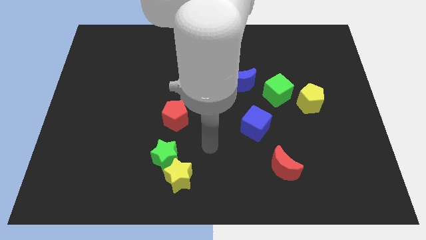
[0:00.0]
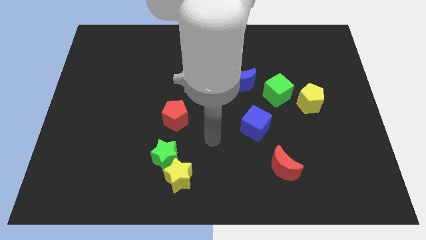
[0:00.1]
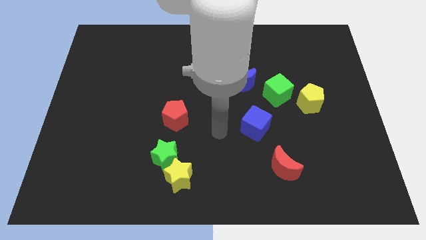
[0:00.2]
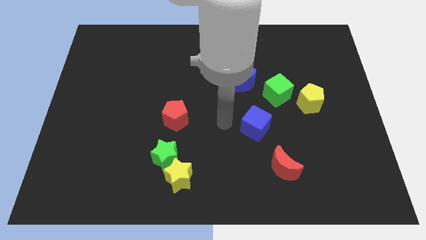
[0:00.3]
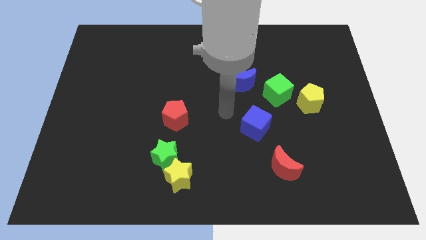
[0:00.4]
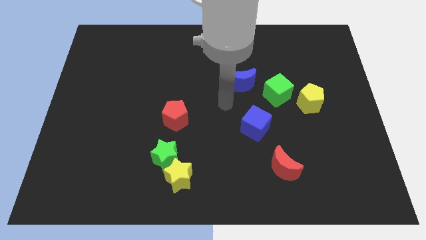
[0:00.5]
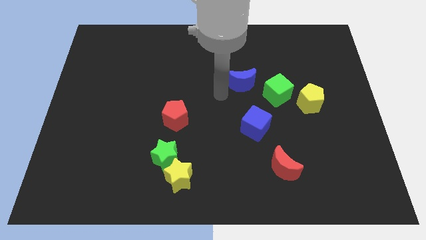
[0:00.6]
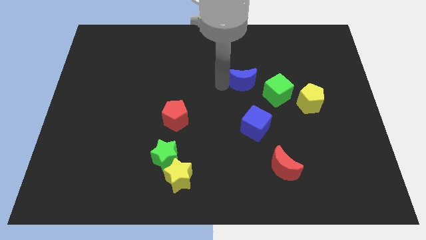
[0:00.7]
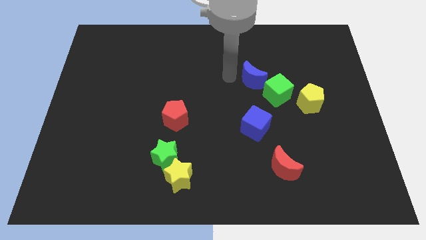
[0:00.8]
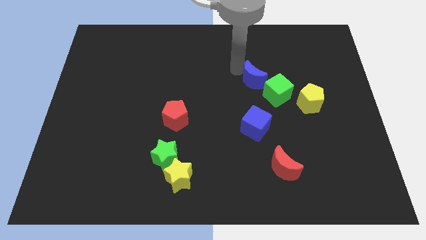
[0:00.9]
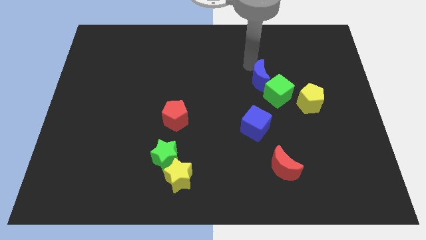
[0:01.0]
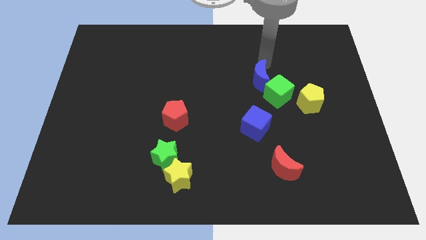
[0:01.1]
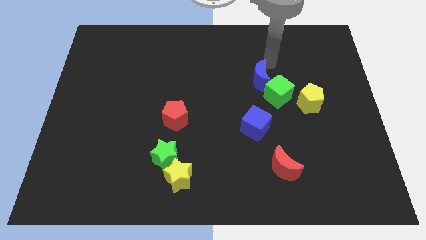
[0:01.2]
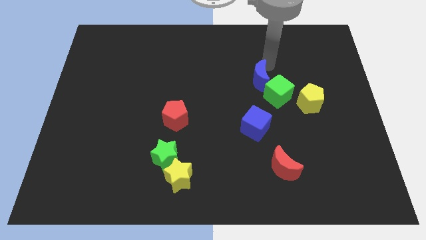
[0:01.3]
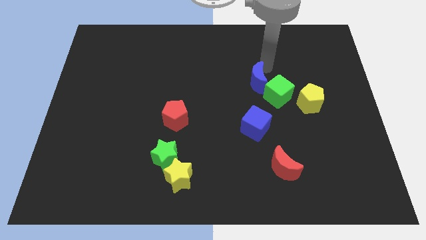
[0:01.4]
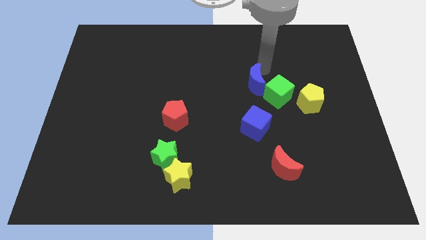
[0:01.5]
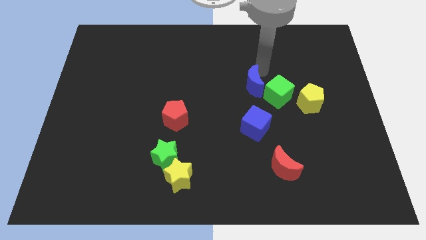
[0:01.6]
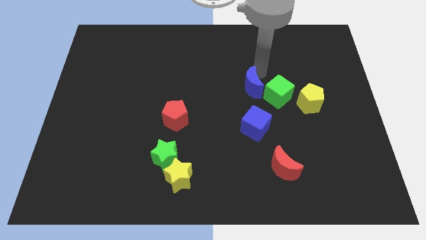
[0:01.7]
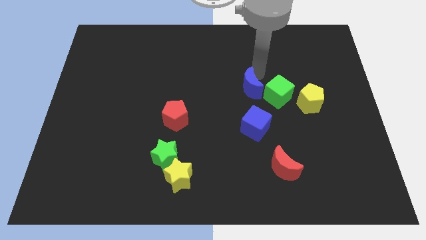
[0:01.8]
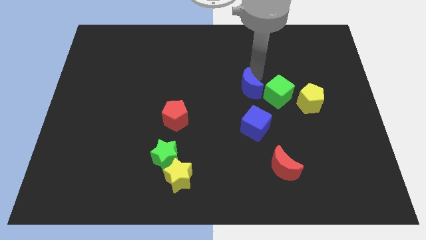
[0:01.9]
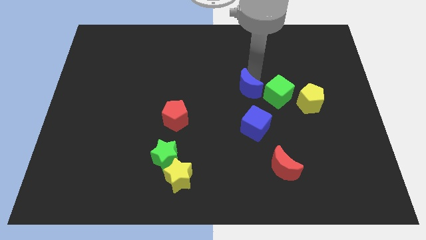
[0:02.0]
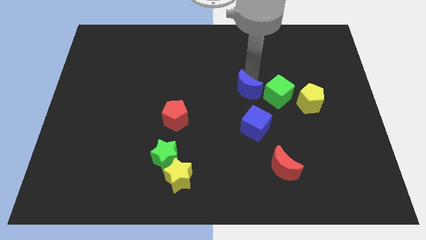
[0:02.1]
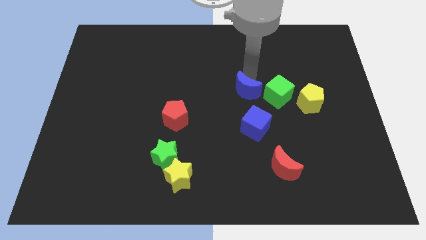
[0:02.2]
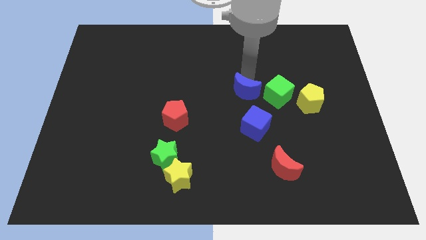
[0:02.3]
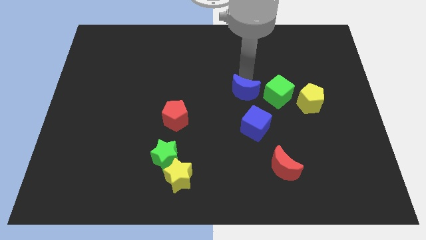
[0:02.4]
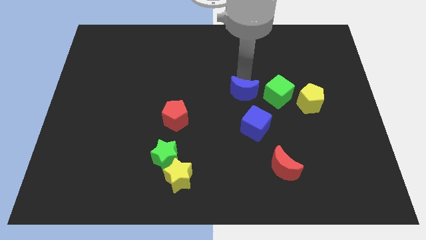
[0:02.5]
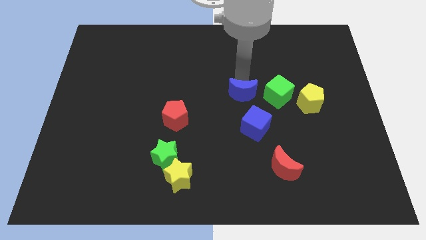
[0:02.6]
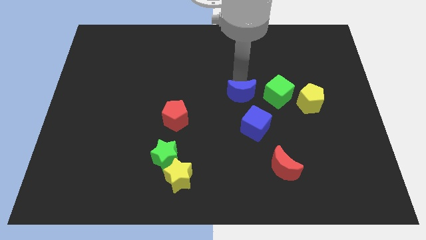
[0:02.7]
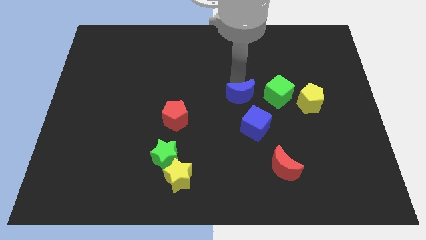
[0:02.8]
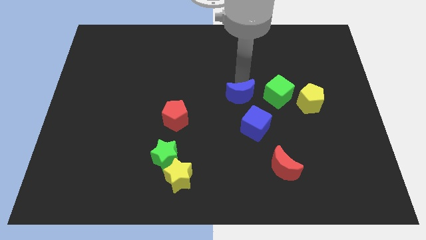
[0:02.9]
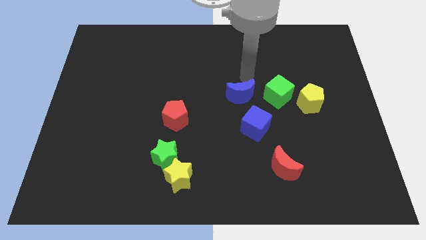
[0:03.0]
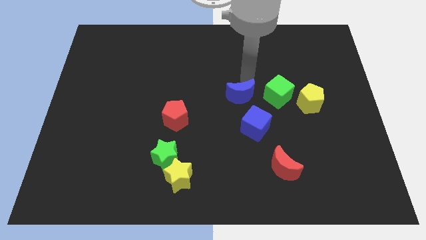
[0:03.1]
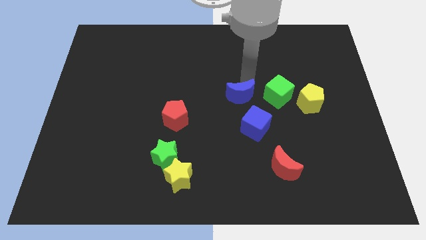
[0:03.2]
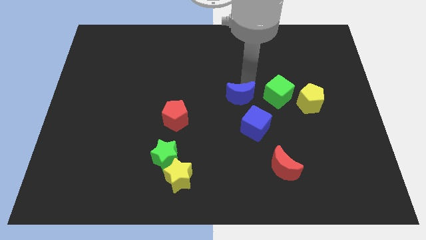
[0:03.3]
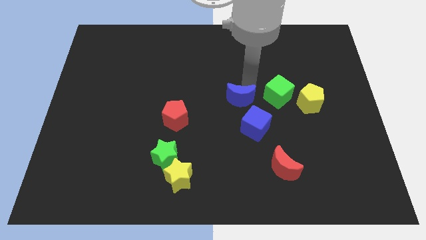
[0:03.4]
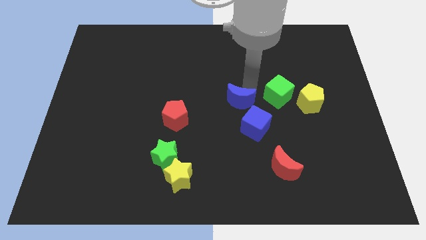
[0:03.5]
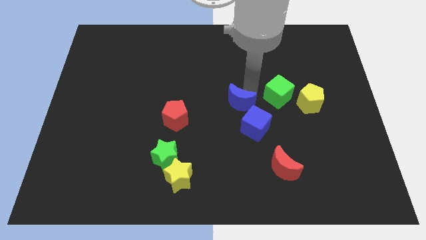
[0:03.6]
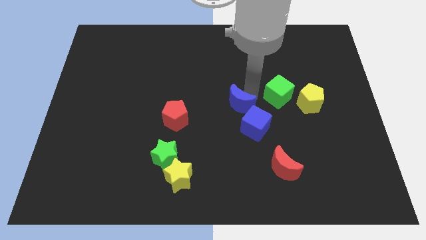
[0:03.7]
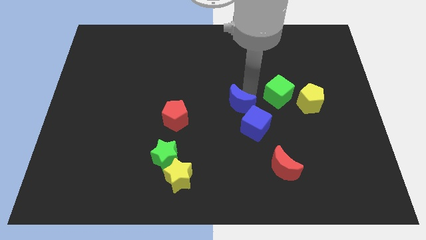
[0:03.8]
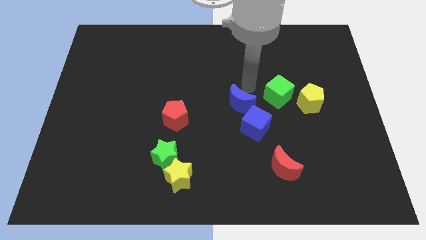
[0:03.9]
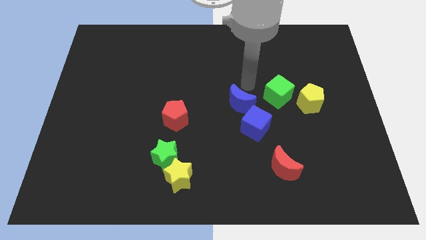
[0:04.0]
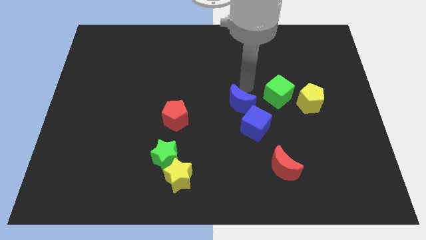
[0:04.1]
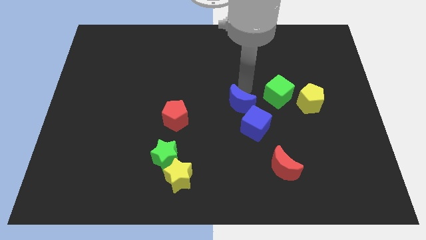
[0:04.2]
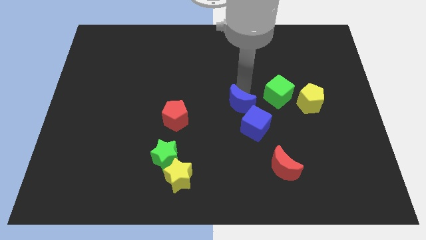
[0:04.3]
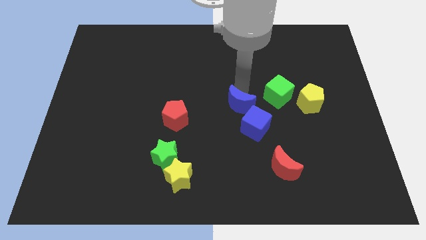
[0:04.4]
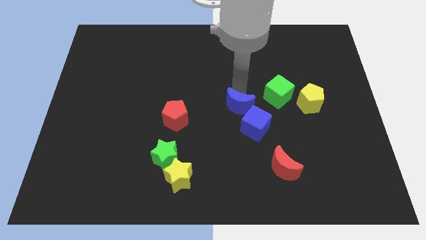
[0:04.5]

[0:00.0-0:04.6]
push the blue moon downwards a bit

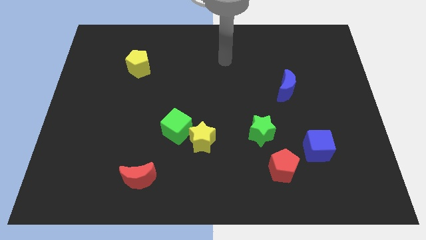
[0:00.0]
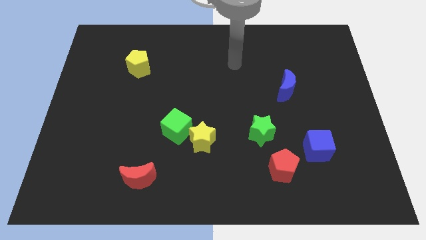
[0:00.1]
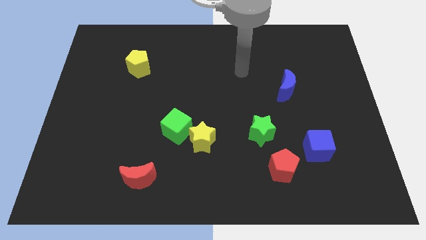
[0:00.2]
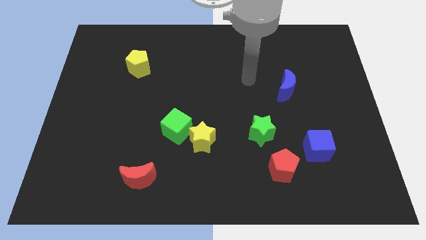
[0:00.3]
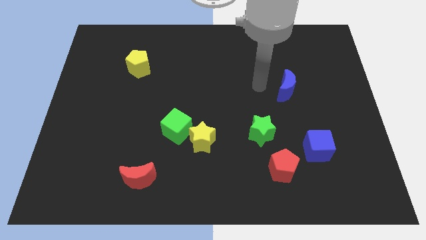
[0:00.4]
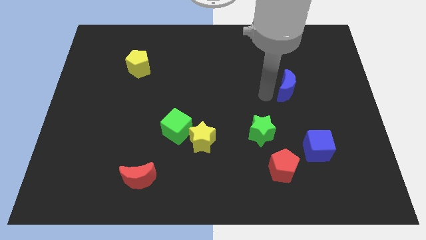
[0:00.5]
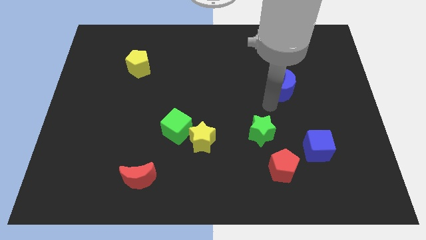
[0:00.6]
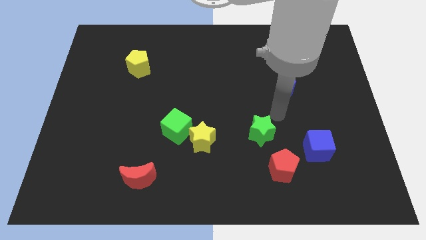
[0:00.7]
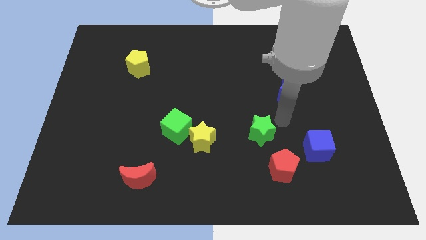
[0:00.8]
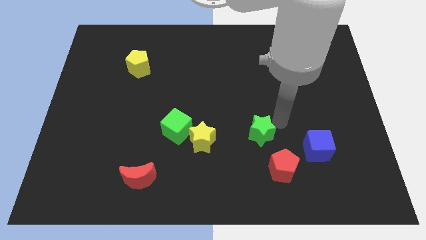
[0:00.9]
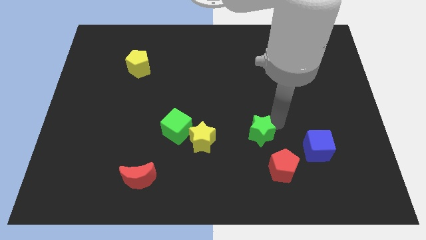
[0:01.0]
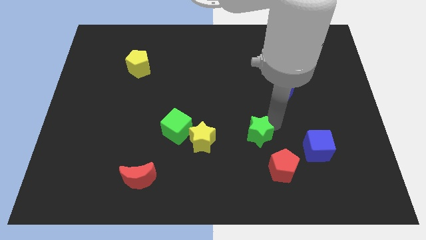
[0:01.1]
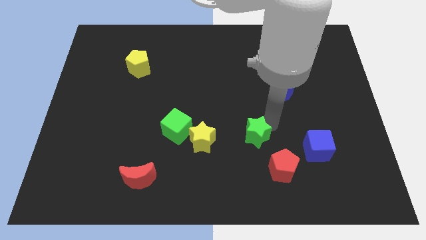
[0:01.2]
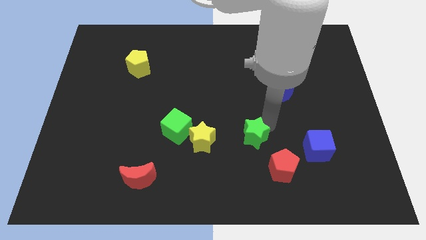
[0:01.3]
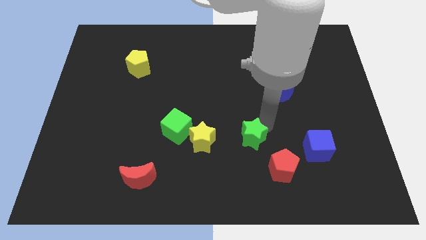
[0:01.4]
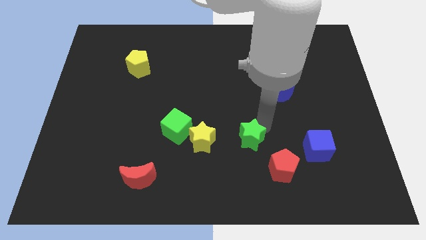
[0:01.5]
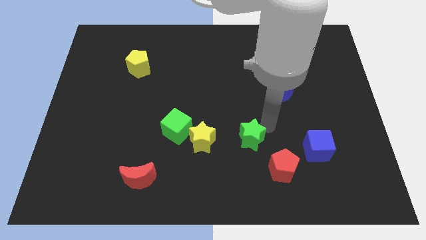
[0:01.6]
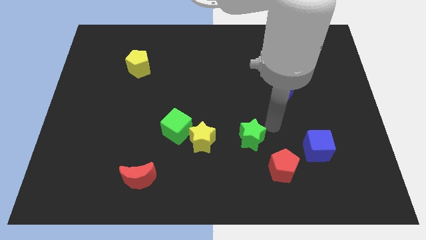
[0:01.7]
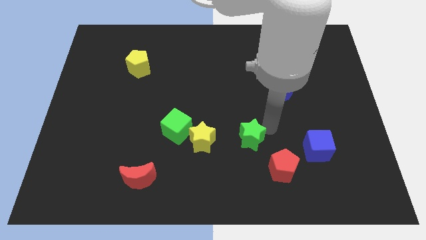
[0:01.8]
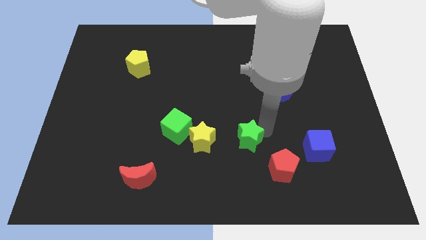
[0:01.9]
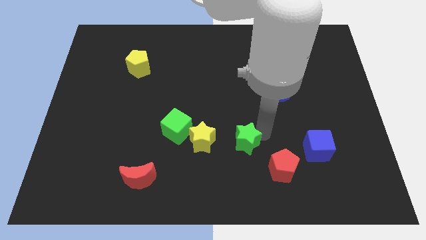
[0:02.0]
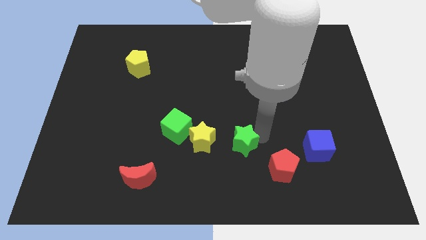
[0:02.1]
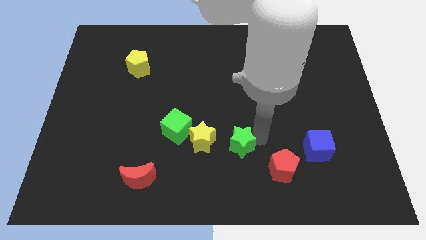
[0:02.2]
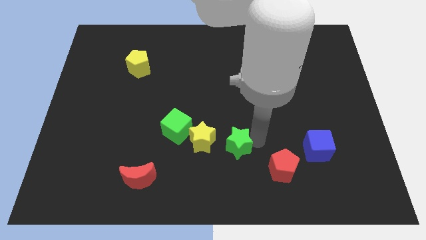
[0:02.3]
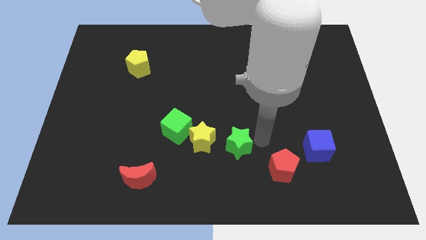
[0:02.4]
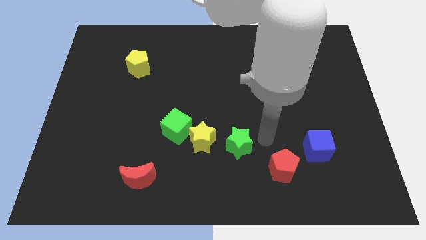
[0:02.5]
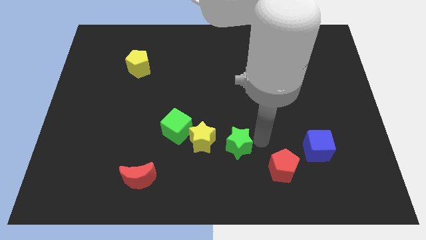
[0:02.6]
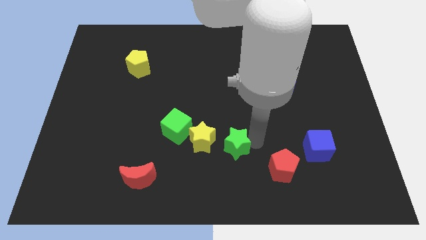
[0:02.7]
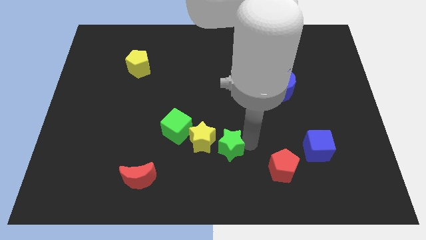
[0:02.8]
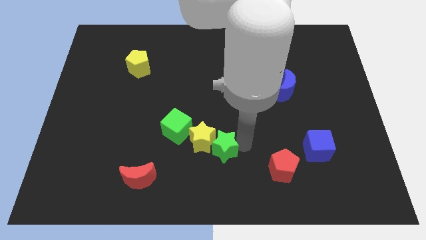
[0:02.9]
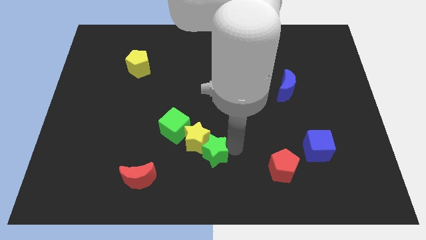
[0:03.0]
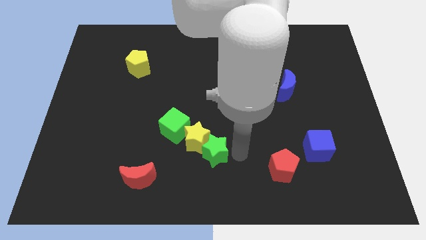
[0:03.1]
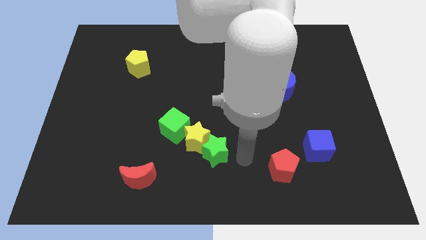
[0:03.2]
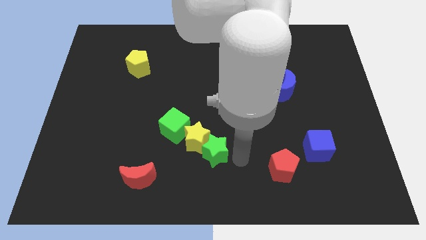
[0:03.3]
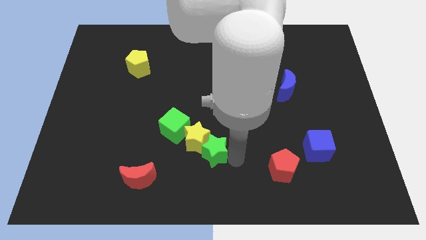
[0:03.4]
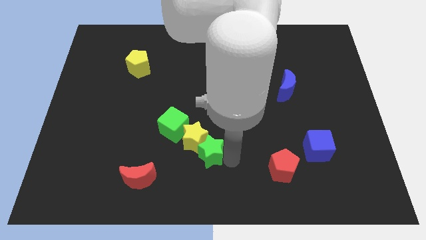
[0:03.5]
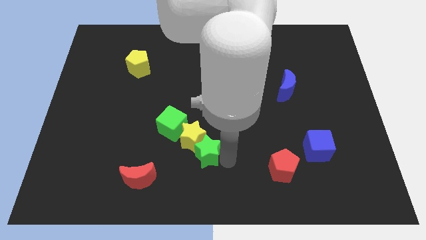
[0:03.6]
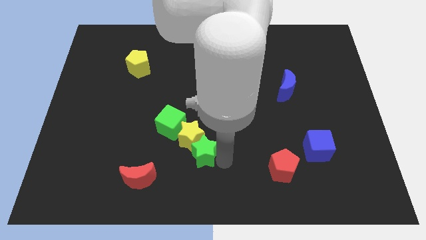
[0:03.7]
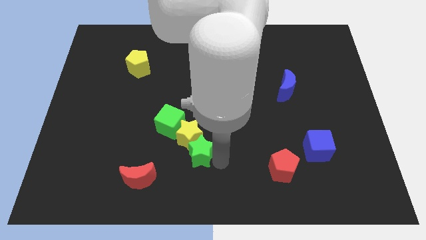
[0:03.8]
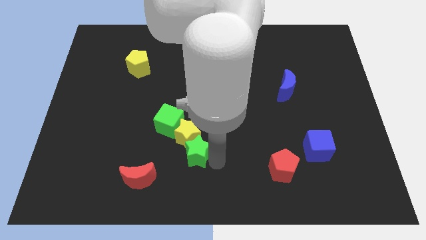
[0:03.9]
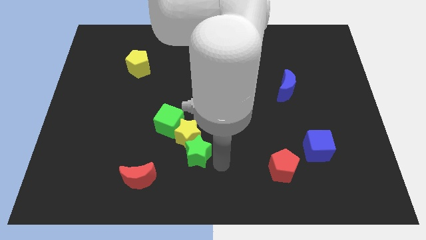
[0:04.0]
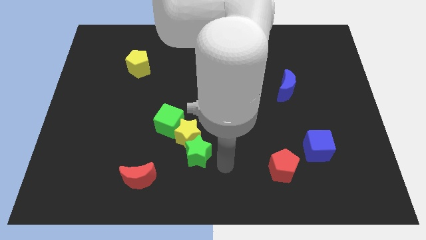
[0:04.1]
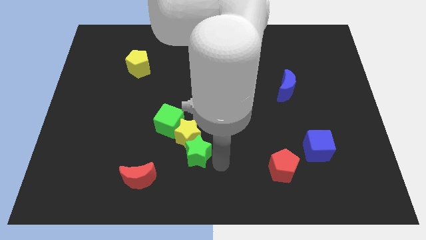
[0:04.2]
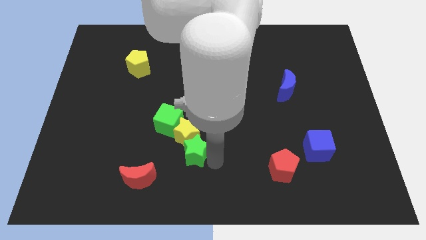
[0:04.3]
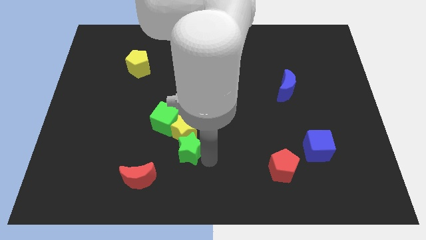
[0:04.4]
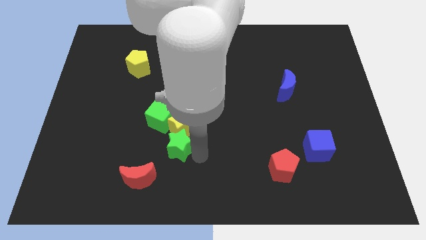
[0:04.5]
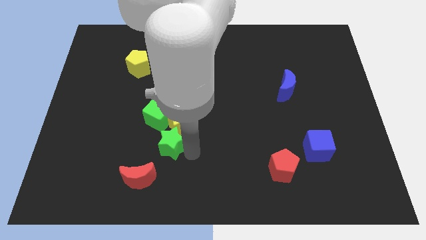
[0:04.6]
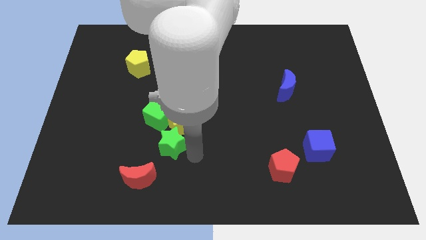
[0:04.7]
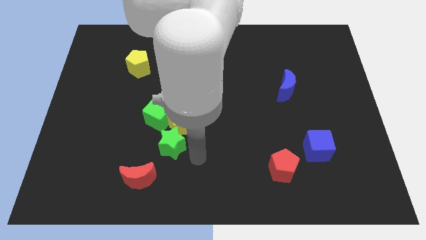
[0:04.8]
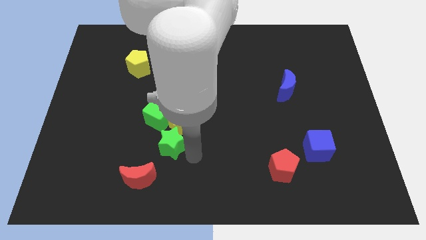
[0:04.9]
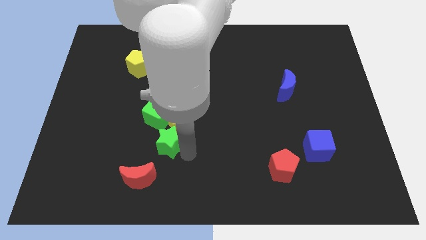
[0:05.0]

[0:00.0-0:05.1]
slide the green star left
